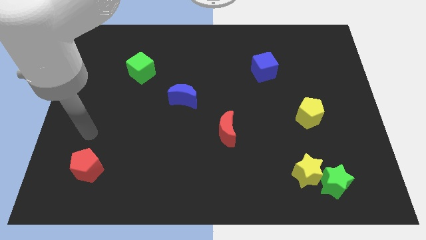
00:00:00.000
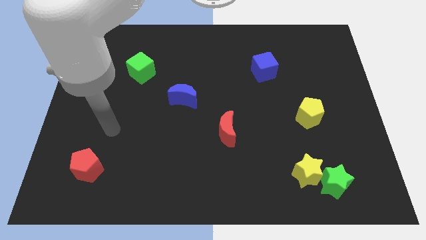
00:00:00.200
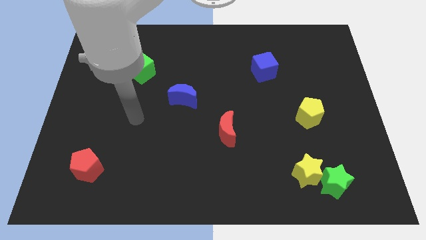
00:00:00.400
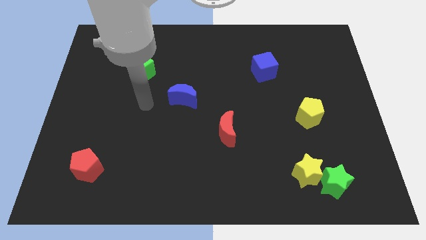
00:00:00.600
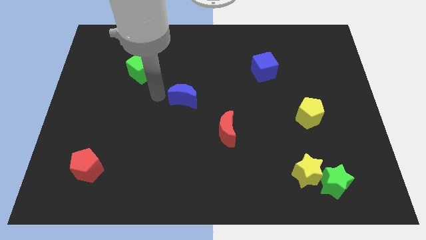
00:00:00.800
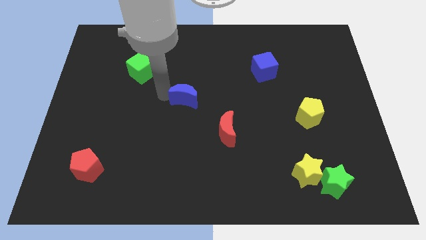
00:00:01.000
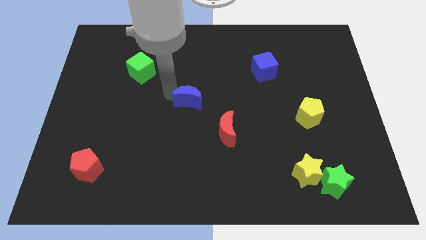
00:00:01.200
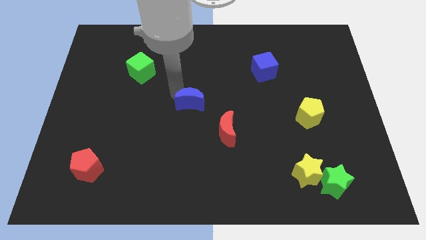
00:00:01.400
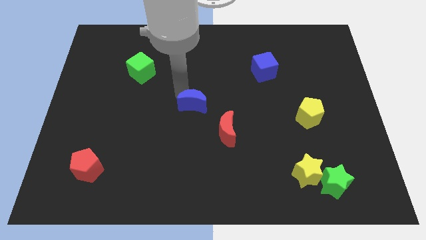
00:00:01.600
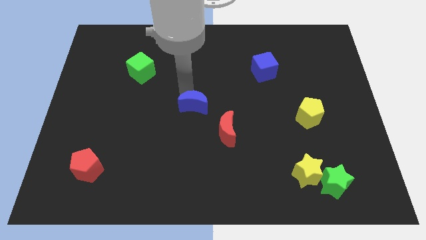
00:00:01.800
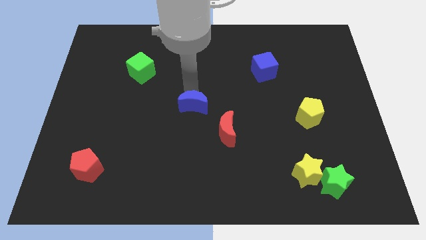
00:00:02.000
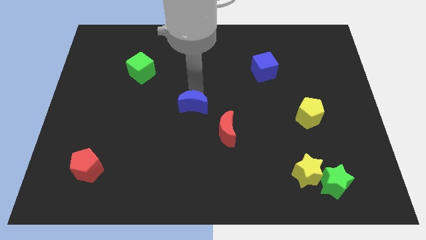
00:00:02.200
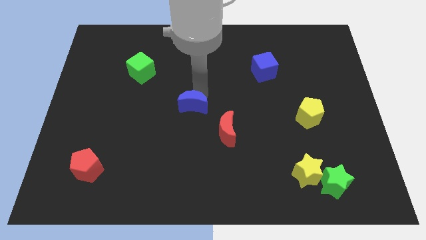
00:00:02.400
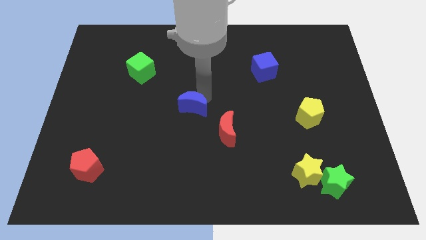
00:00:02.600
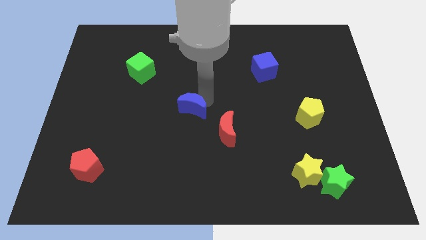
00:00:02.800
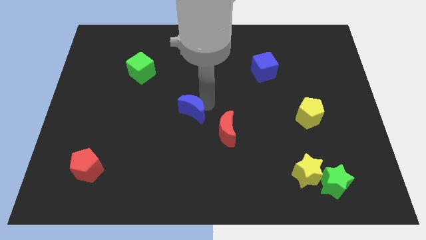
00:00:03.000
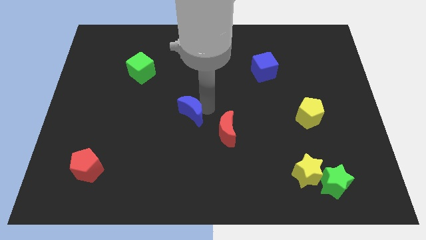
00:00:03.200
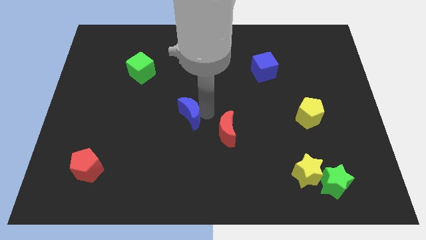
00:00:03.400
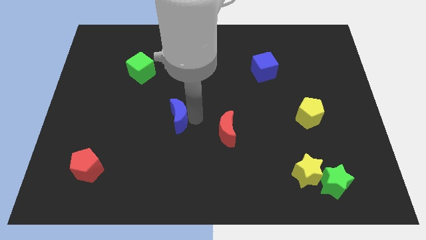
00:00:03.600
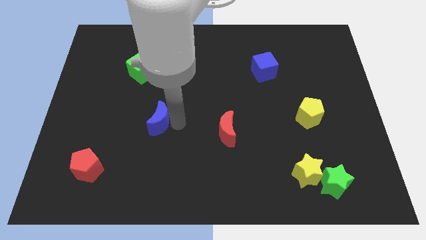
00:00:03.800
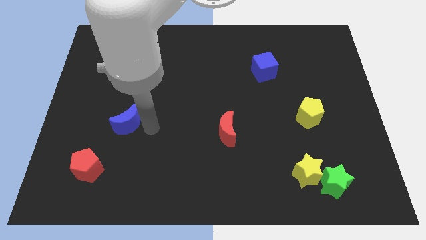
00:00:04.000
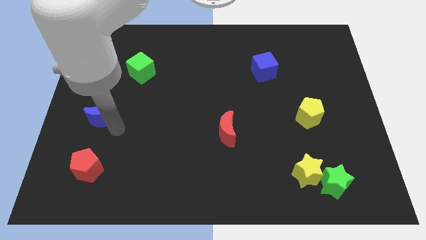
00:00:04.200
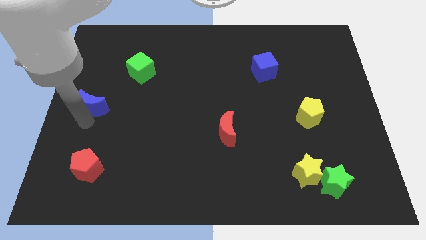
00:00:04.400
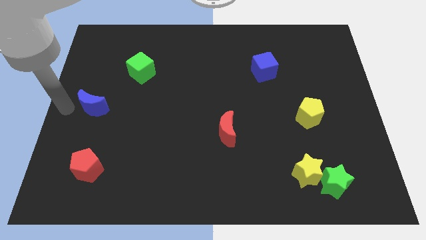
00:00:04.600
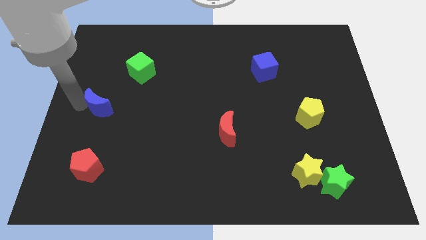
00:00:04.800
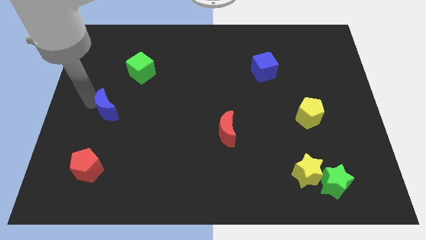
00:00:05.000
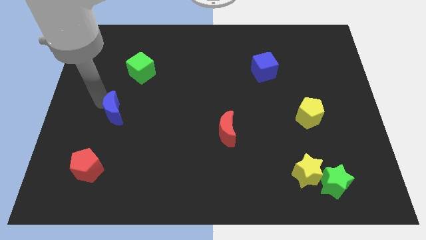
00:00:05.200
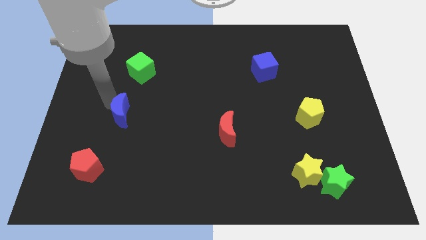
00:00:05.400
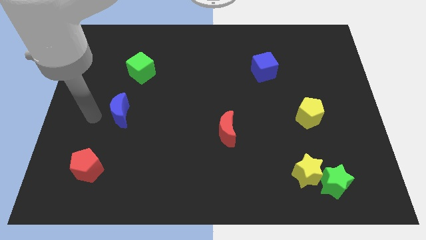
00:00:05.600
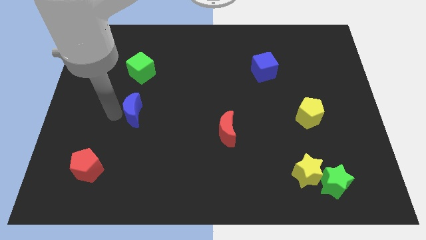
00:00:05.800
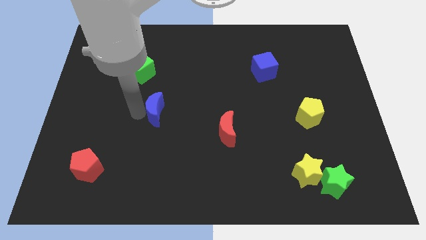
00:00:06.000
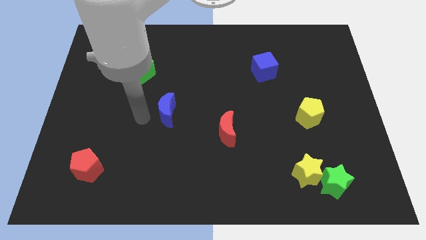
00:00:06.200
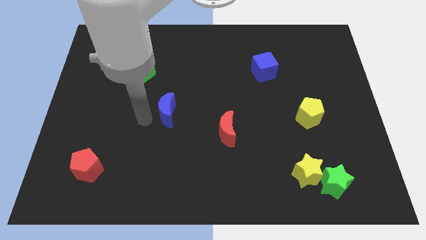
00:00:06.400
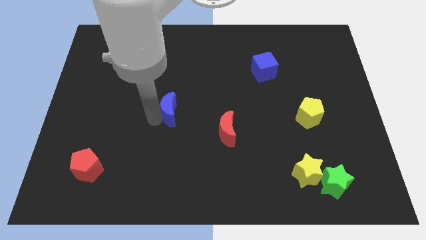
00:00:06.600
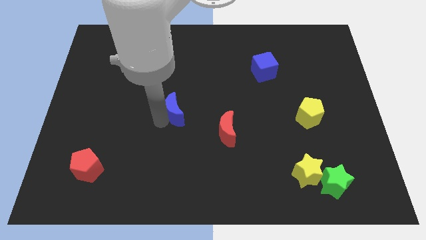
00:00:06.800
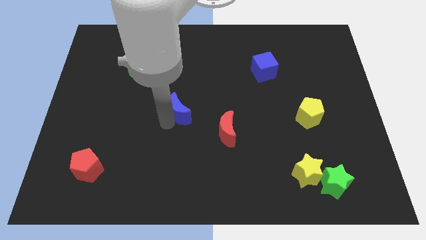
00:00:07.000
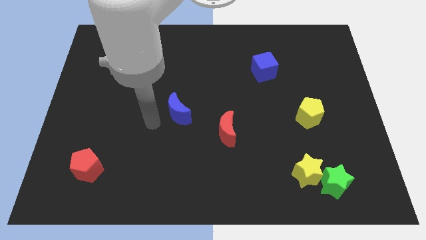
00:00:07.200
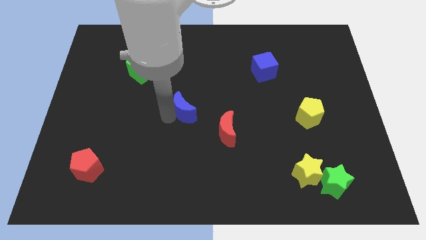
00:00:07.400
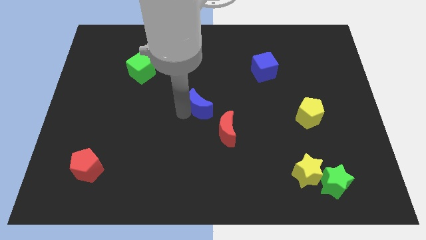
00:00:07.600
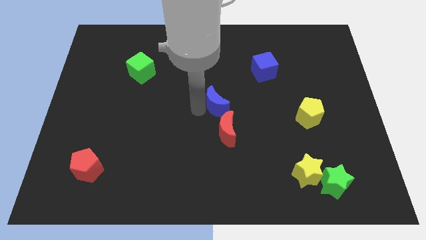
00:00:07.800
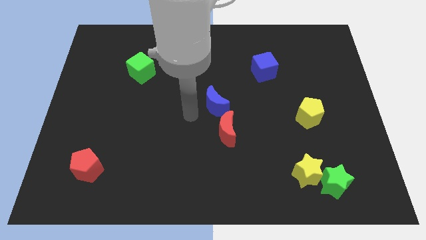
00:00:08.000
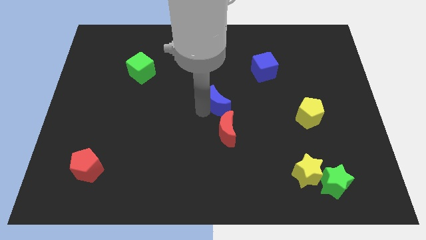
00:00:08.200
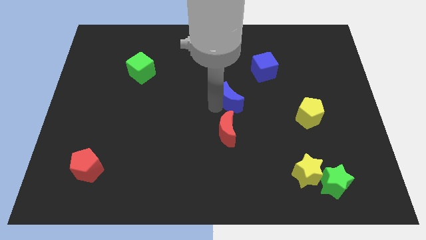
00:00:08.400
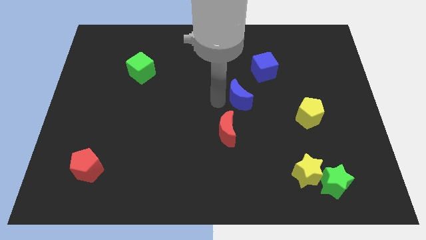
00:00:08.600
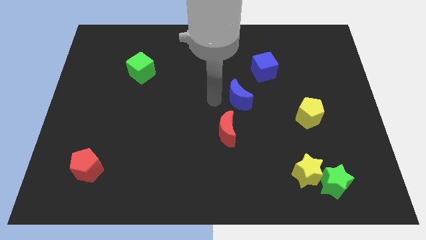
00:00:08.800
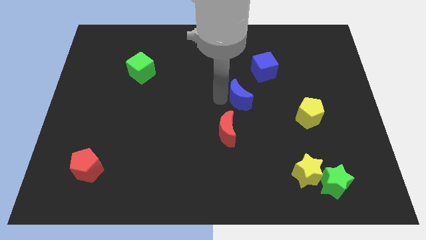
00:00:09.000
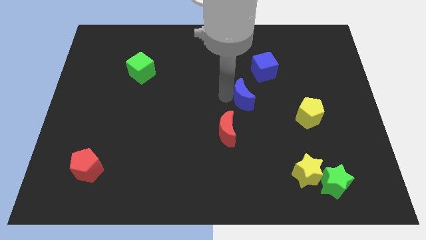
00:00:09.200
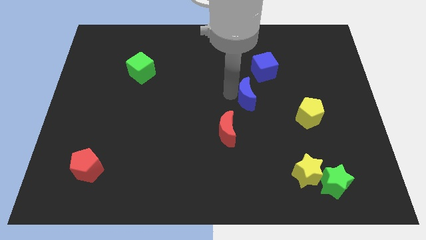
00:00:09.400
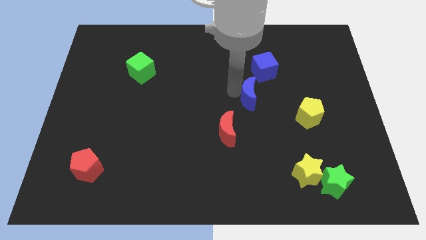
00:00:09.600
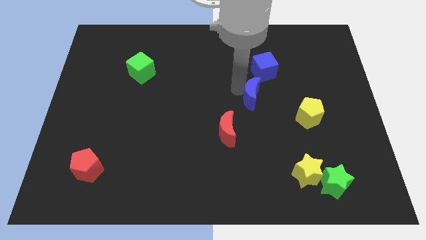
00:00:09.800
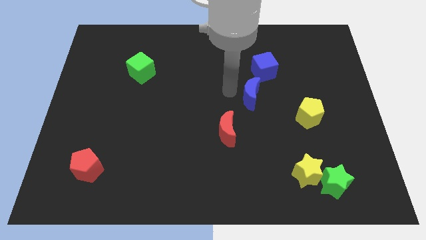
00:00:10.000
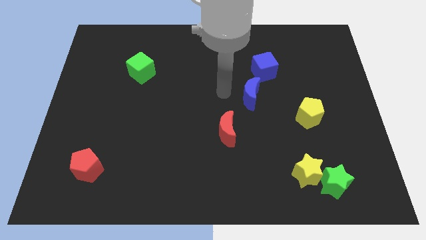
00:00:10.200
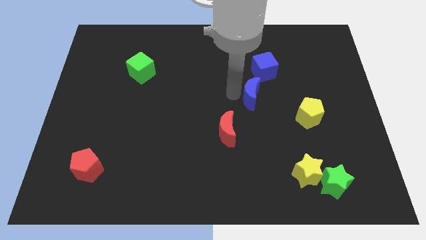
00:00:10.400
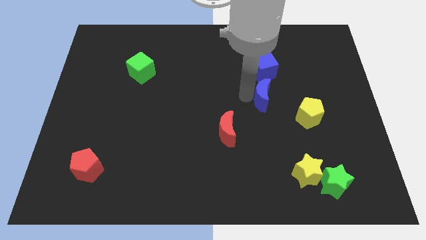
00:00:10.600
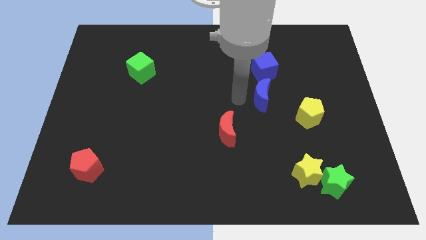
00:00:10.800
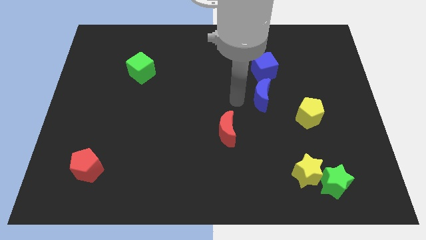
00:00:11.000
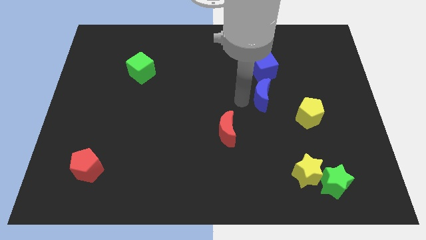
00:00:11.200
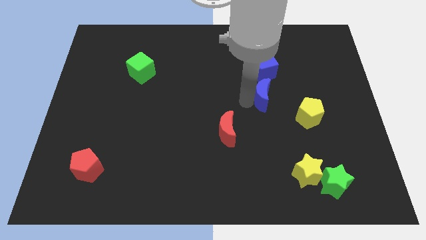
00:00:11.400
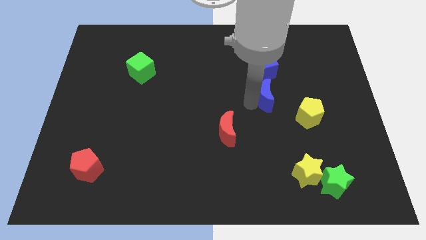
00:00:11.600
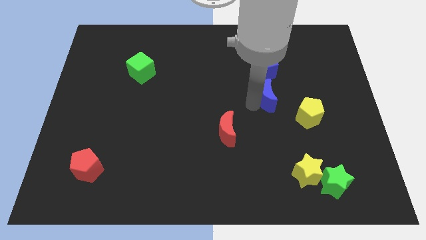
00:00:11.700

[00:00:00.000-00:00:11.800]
push the blue moon right

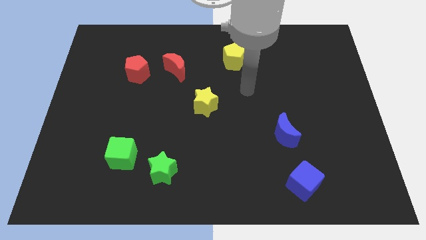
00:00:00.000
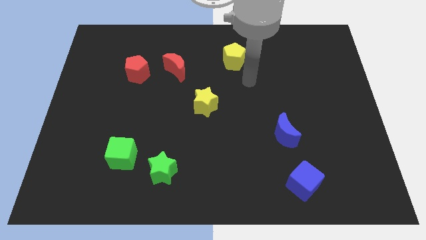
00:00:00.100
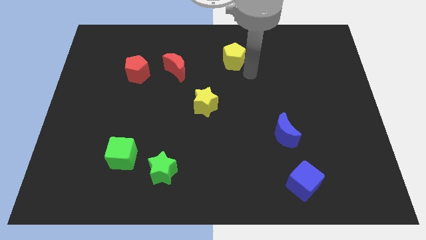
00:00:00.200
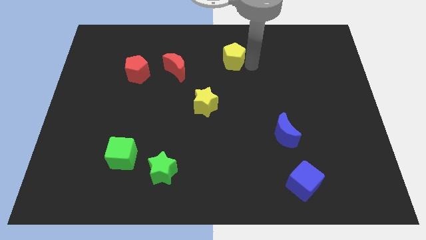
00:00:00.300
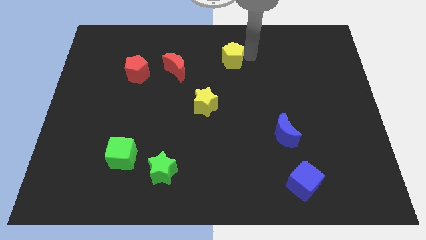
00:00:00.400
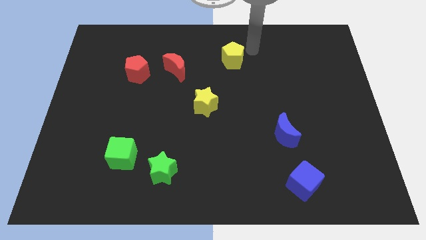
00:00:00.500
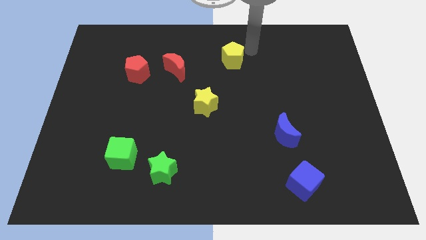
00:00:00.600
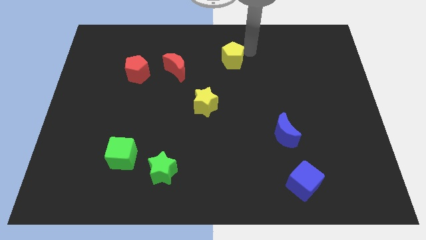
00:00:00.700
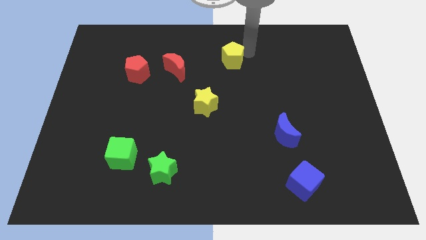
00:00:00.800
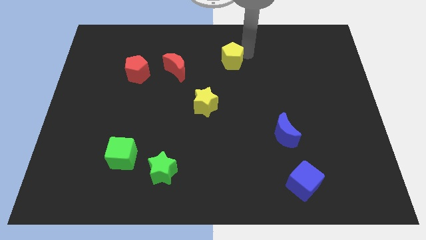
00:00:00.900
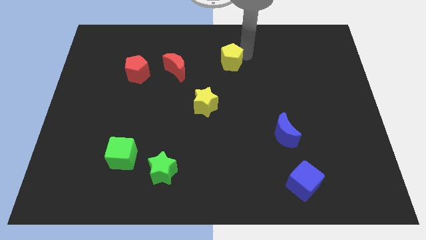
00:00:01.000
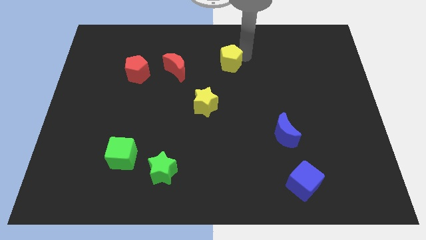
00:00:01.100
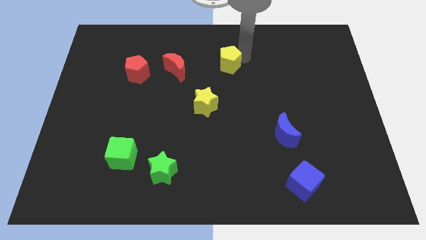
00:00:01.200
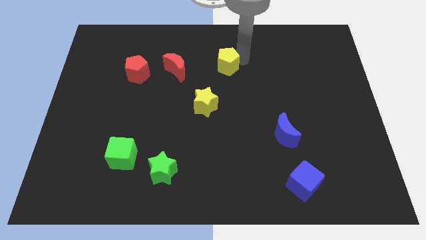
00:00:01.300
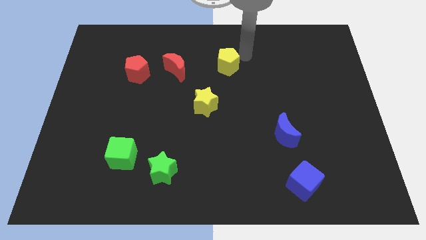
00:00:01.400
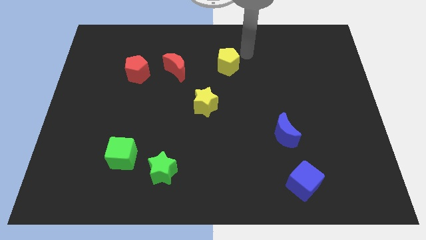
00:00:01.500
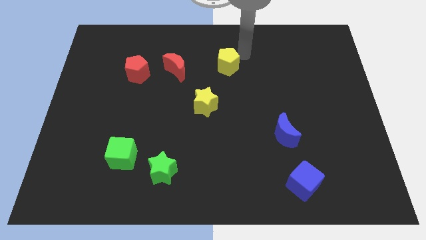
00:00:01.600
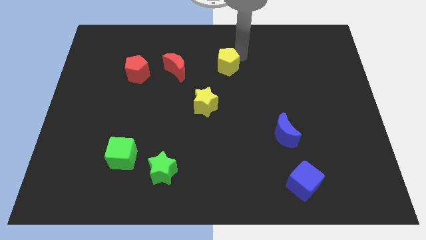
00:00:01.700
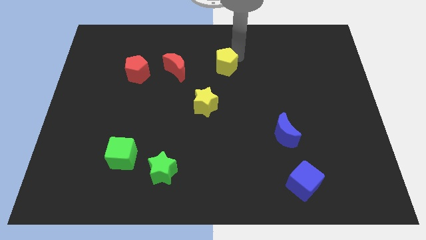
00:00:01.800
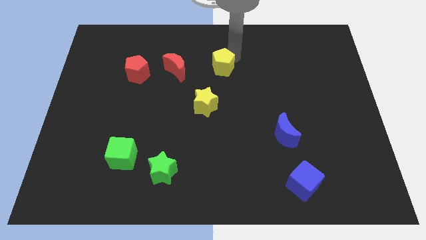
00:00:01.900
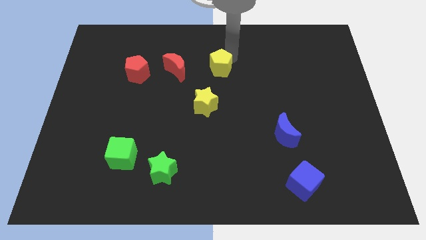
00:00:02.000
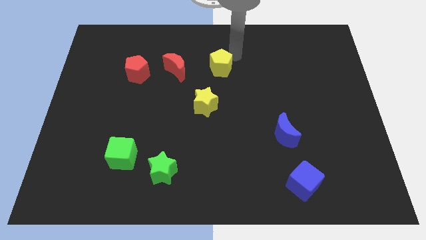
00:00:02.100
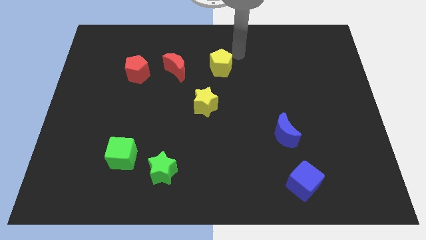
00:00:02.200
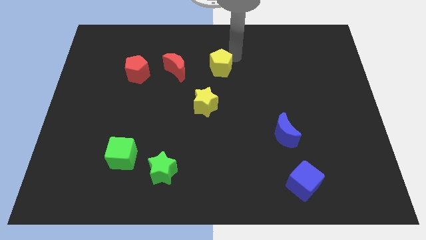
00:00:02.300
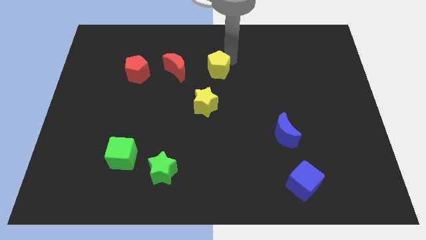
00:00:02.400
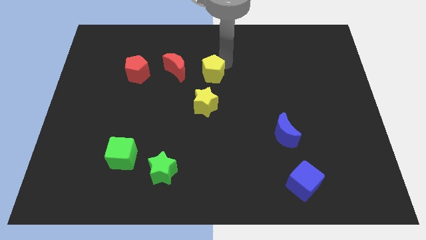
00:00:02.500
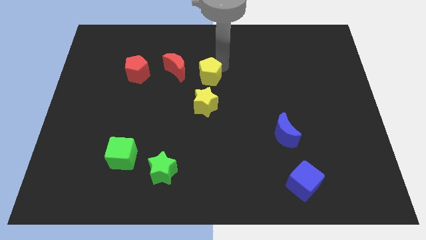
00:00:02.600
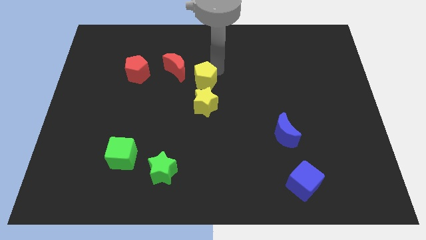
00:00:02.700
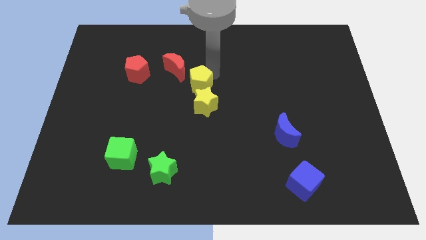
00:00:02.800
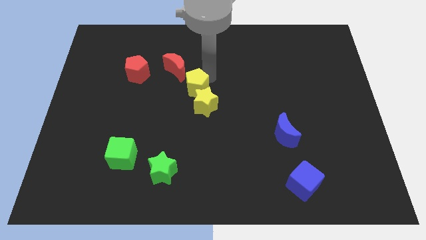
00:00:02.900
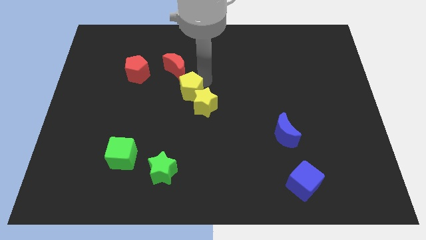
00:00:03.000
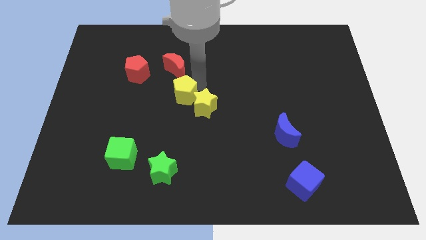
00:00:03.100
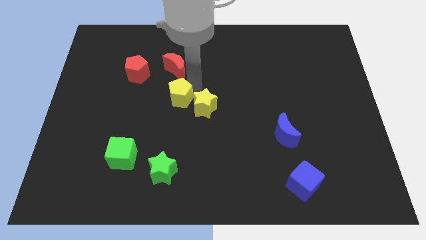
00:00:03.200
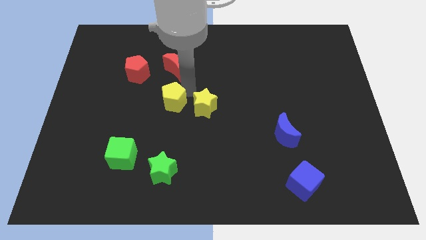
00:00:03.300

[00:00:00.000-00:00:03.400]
slide the yellow pentagon downwards and to the left
